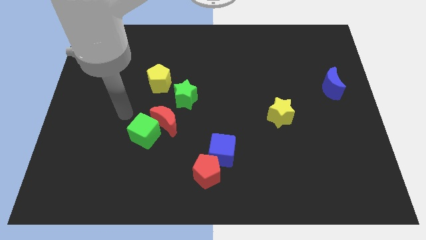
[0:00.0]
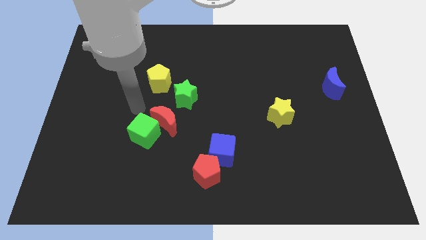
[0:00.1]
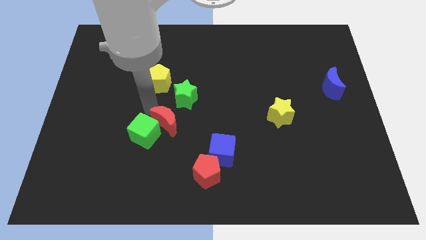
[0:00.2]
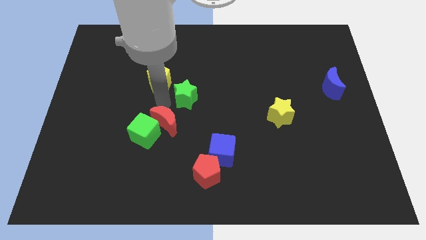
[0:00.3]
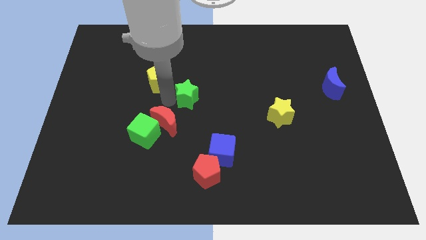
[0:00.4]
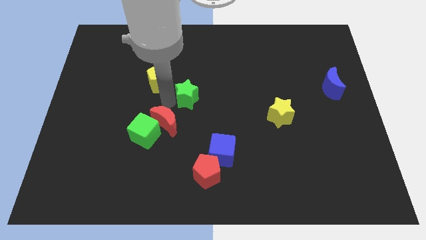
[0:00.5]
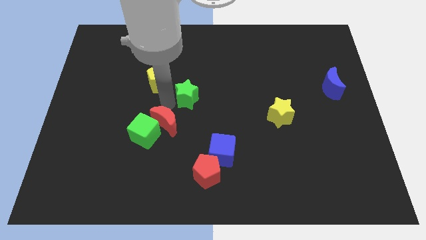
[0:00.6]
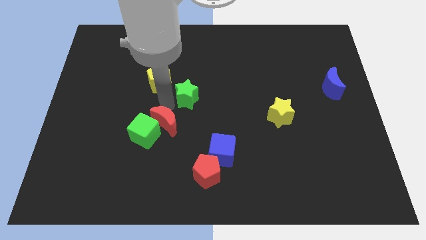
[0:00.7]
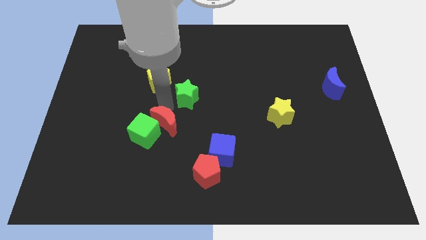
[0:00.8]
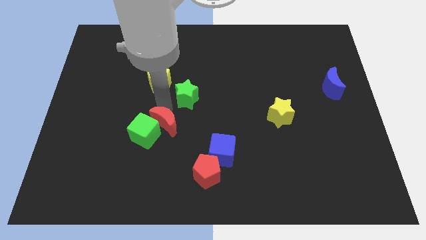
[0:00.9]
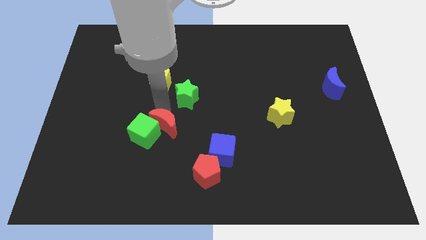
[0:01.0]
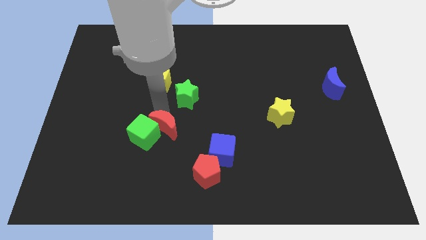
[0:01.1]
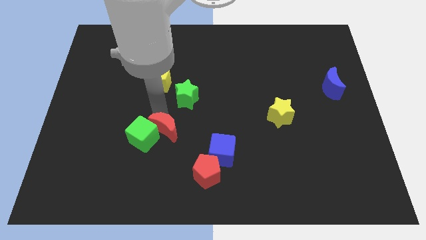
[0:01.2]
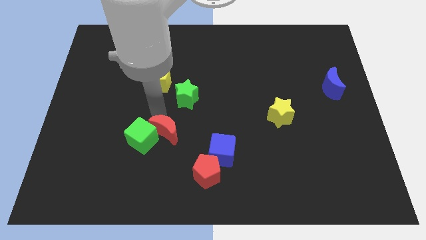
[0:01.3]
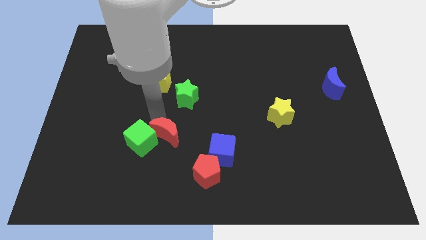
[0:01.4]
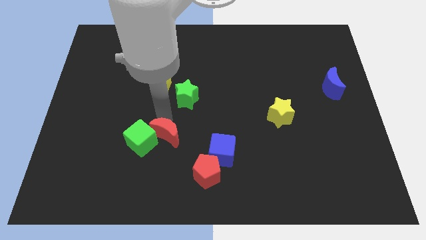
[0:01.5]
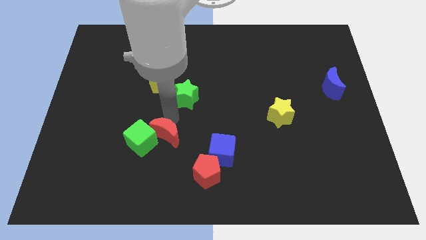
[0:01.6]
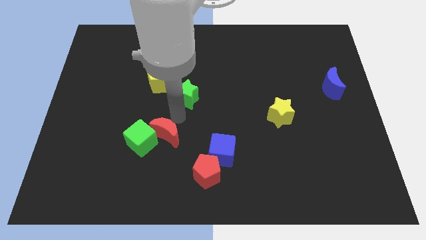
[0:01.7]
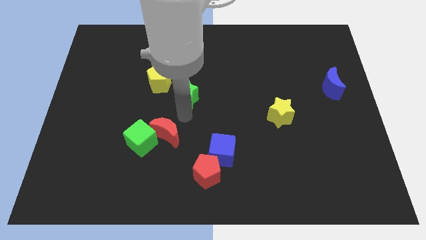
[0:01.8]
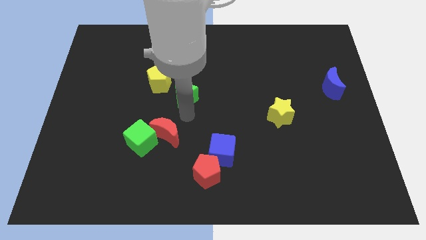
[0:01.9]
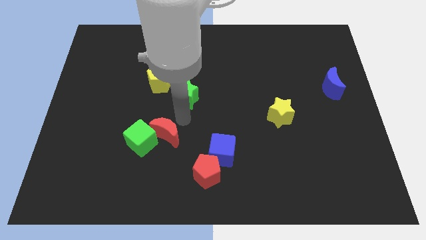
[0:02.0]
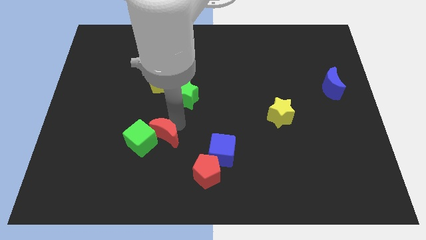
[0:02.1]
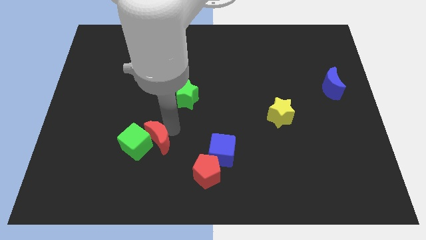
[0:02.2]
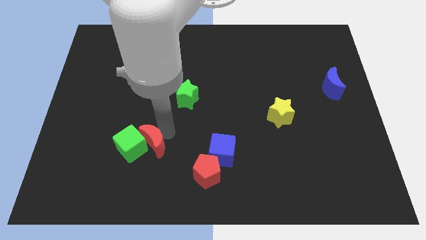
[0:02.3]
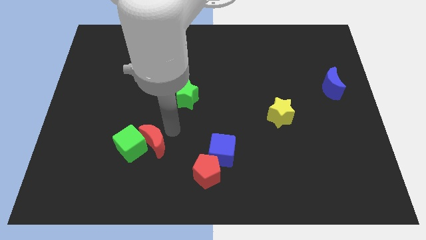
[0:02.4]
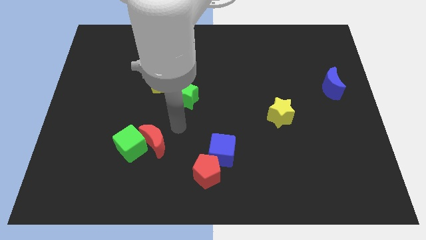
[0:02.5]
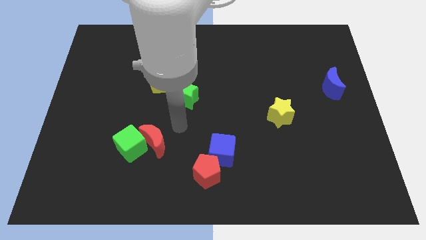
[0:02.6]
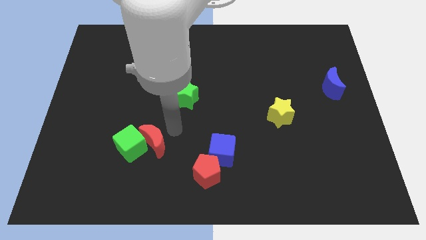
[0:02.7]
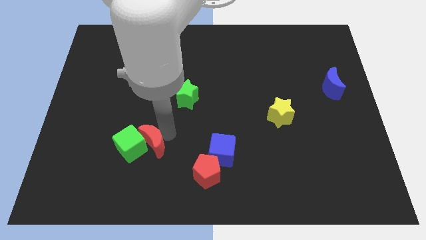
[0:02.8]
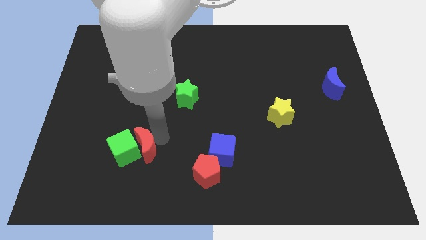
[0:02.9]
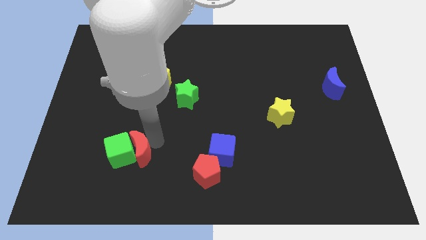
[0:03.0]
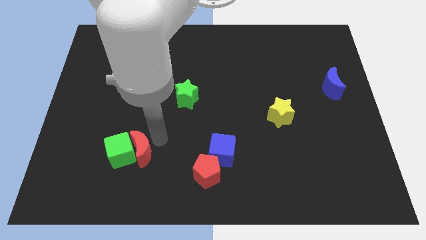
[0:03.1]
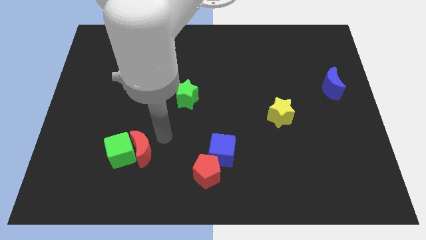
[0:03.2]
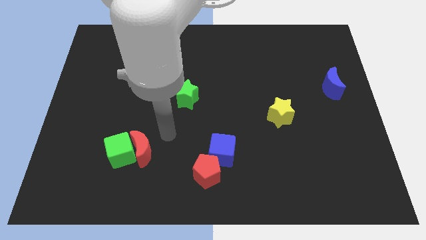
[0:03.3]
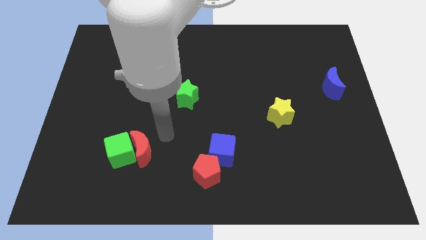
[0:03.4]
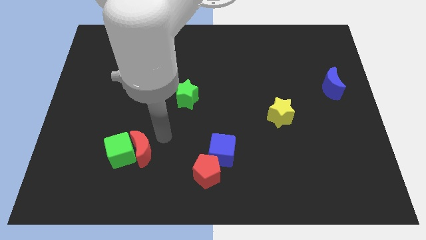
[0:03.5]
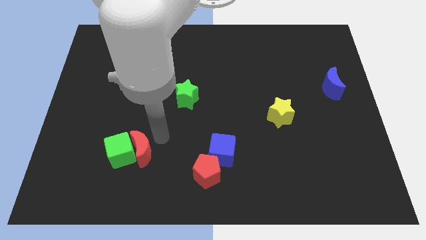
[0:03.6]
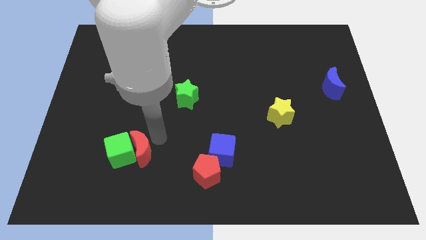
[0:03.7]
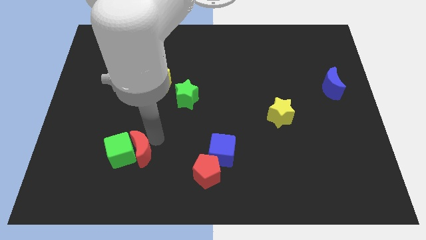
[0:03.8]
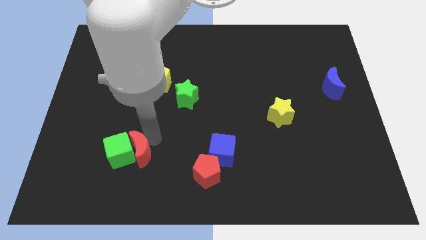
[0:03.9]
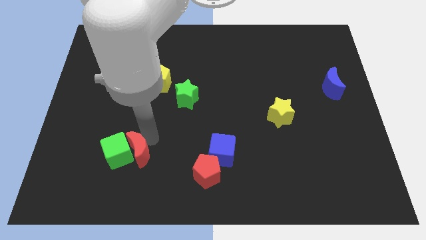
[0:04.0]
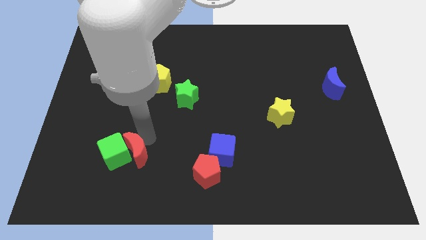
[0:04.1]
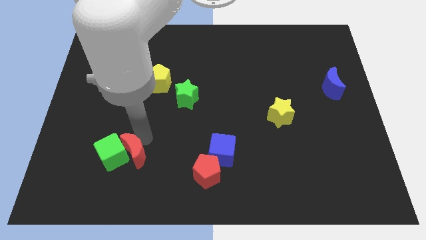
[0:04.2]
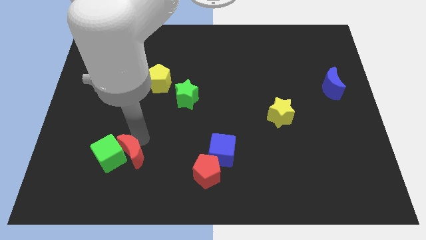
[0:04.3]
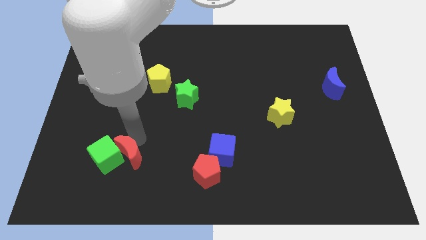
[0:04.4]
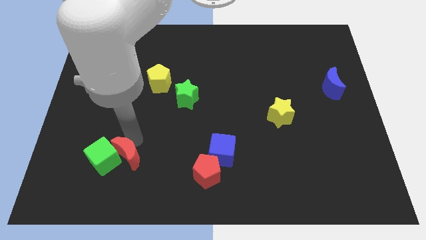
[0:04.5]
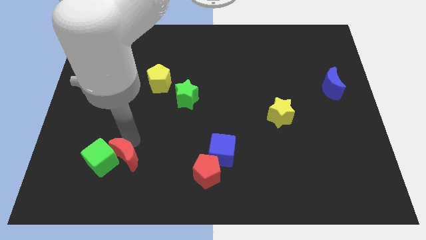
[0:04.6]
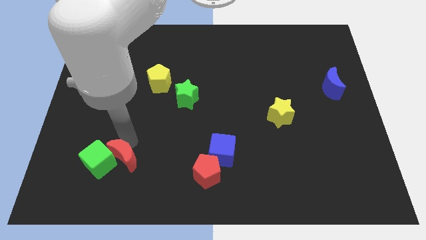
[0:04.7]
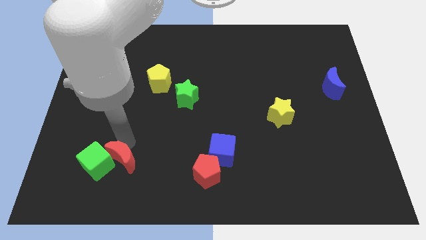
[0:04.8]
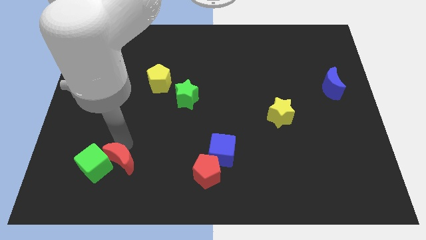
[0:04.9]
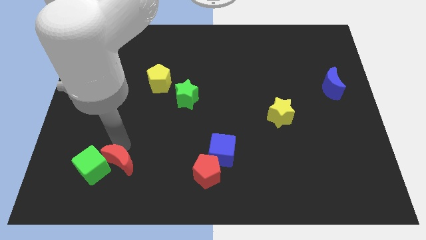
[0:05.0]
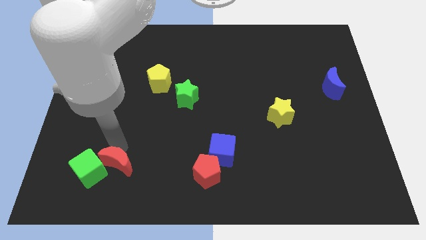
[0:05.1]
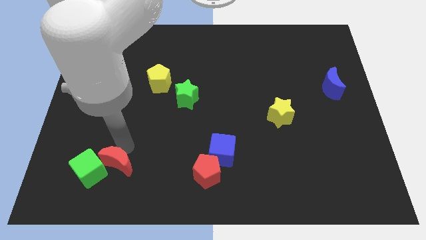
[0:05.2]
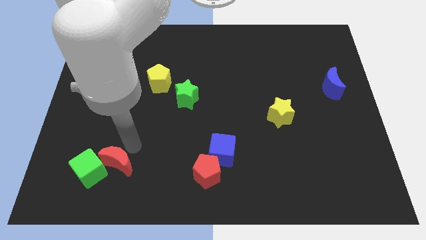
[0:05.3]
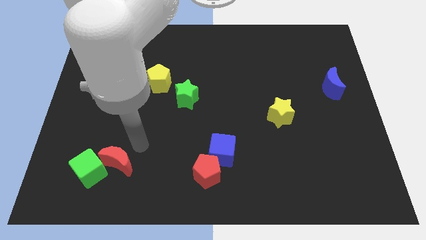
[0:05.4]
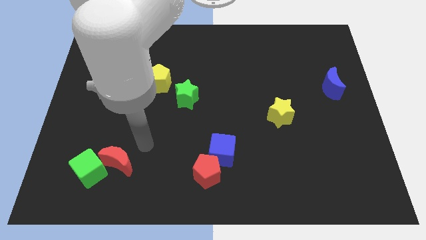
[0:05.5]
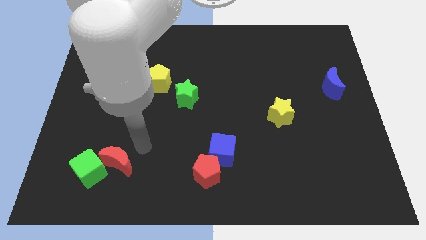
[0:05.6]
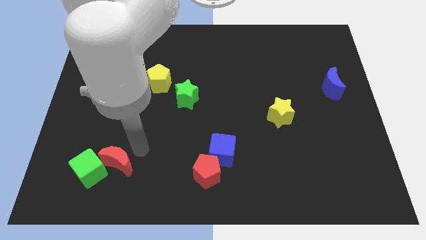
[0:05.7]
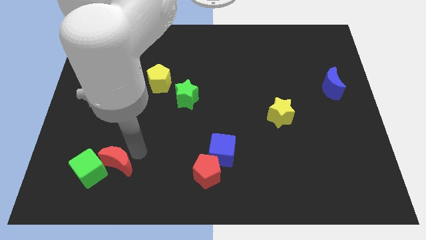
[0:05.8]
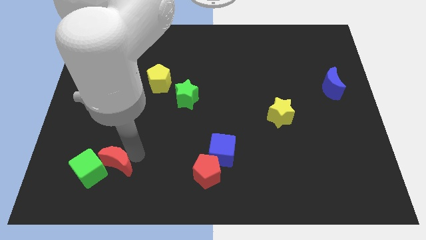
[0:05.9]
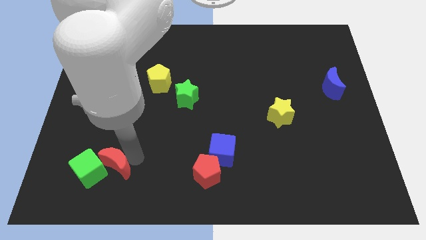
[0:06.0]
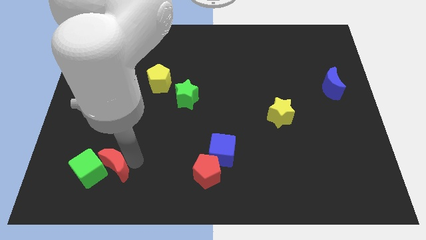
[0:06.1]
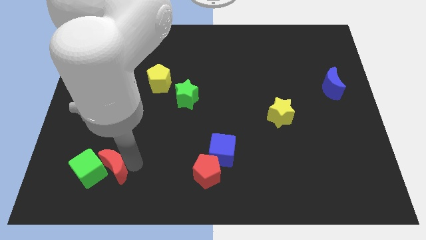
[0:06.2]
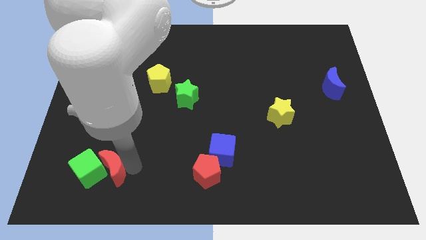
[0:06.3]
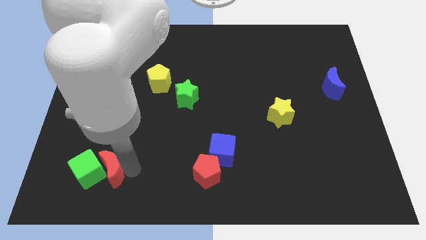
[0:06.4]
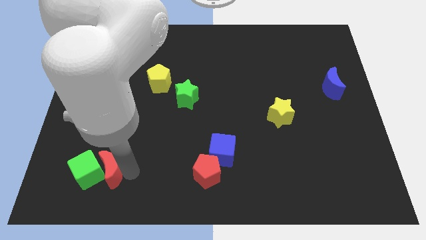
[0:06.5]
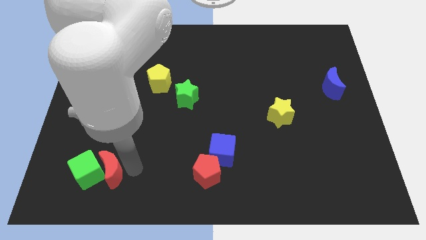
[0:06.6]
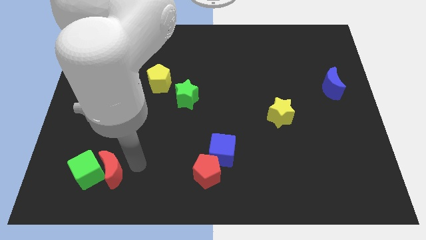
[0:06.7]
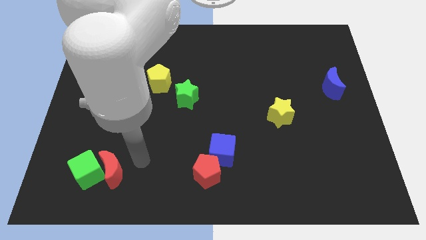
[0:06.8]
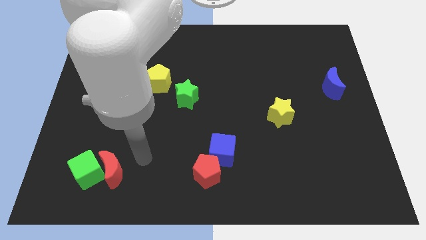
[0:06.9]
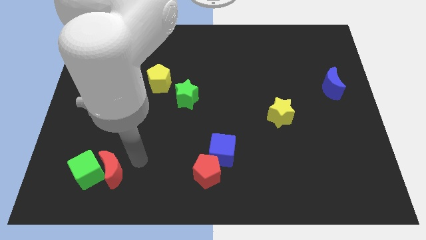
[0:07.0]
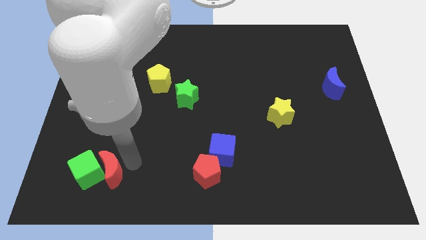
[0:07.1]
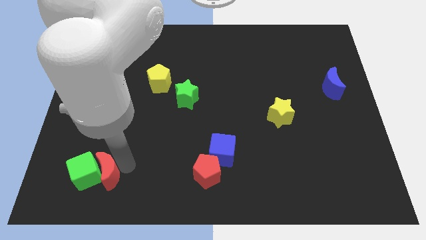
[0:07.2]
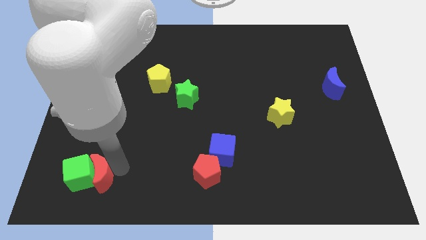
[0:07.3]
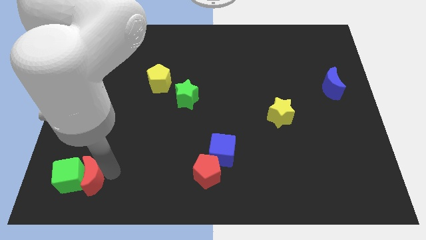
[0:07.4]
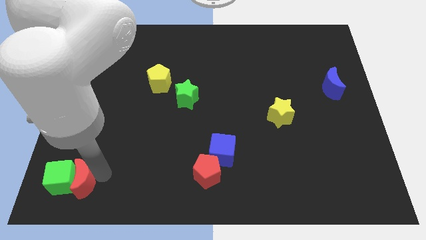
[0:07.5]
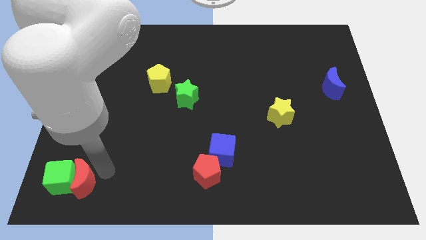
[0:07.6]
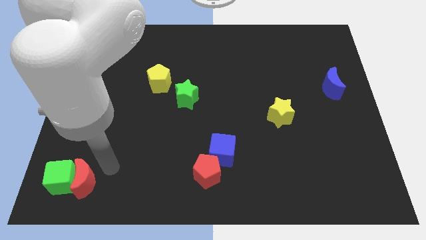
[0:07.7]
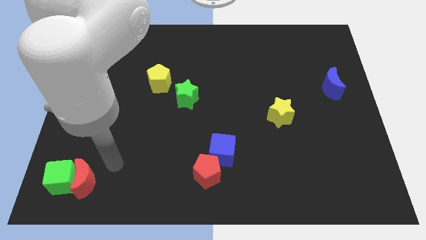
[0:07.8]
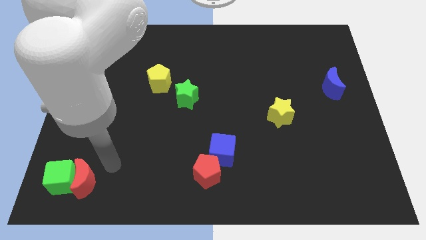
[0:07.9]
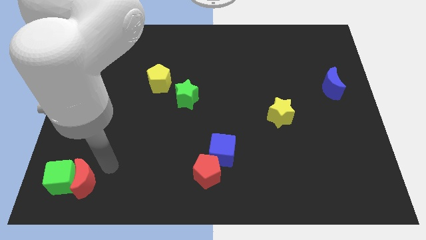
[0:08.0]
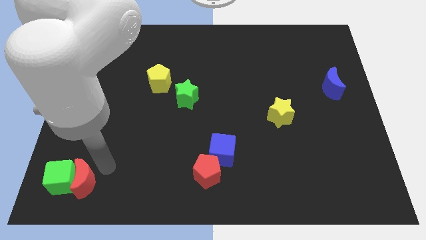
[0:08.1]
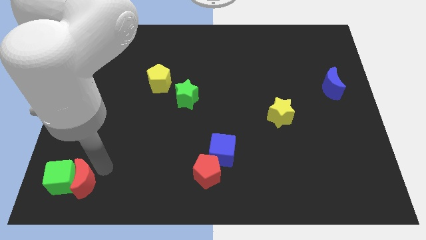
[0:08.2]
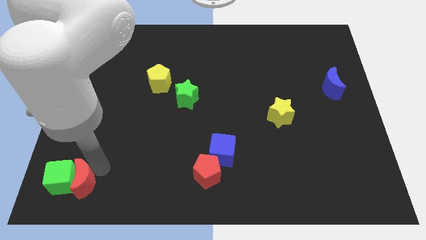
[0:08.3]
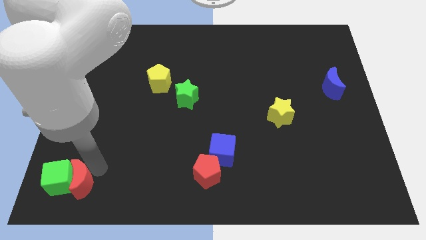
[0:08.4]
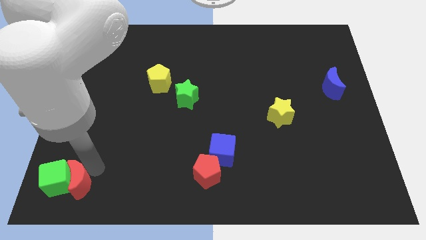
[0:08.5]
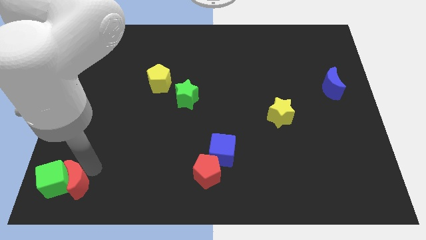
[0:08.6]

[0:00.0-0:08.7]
put the red moon to the lower left corner
